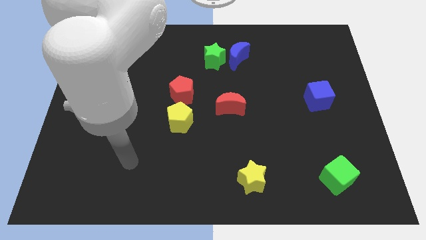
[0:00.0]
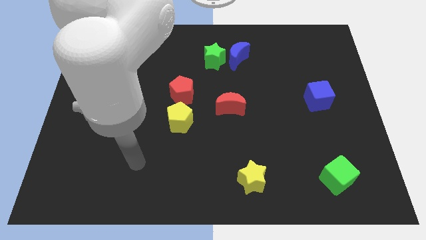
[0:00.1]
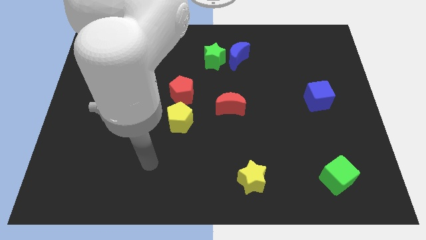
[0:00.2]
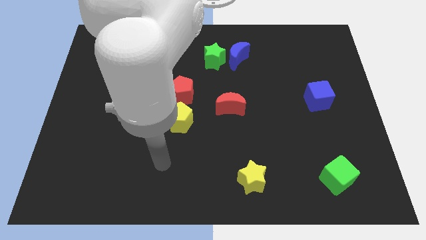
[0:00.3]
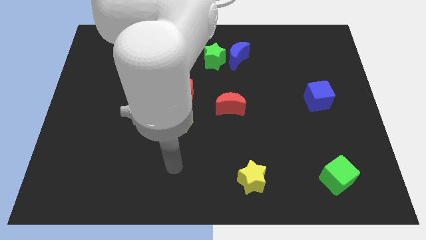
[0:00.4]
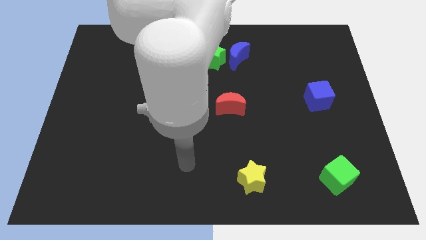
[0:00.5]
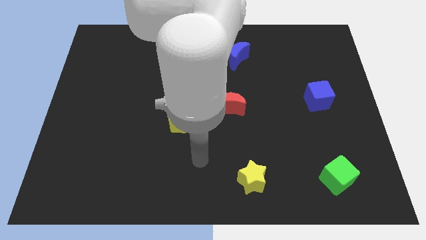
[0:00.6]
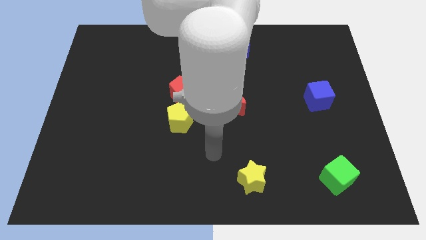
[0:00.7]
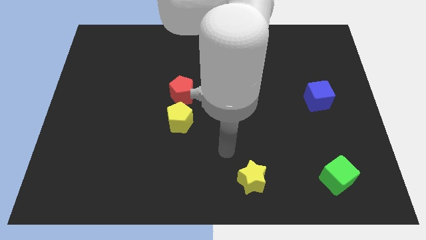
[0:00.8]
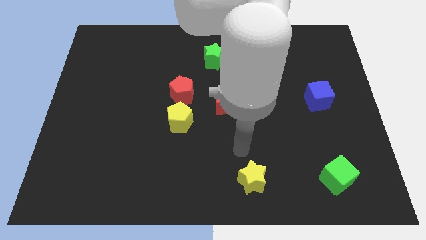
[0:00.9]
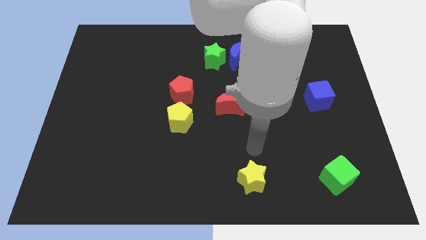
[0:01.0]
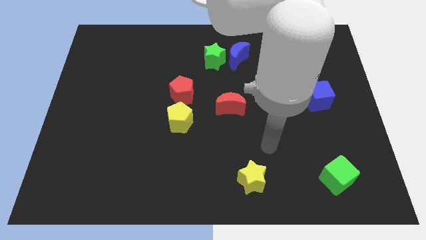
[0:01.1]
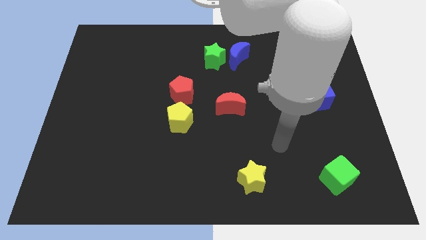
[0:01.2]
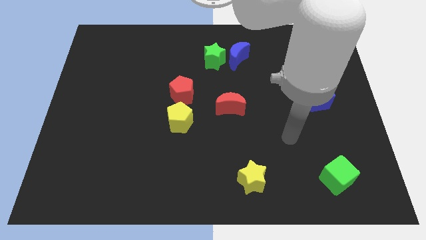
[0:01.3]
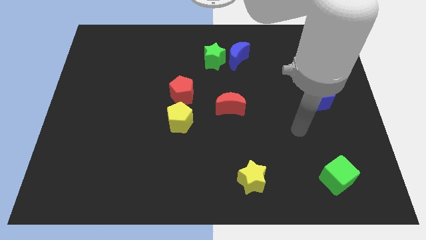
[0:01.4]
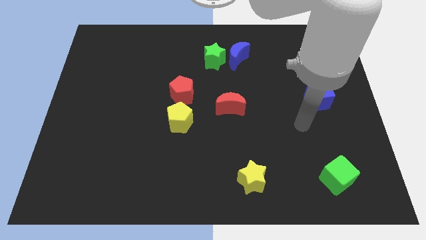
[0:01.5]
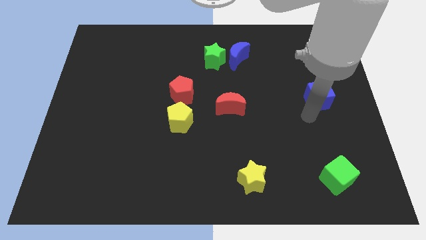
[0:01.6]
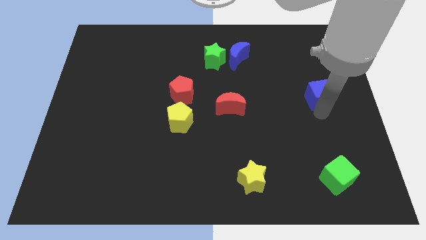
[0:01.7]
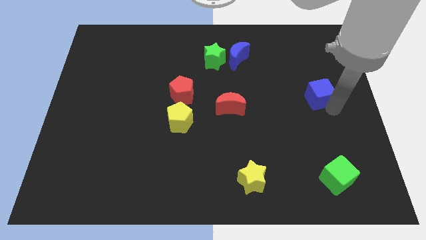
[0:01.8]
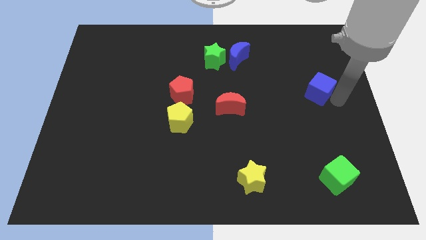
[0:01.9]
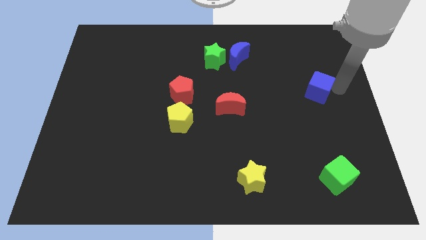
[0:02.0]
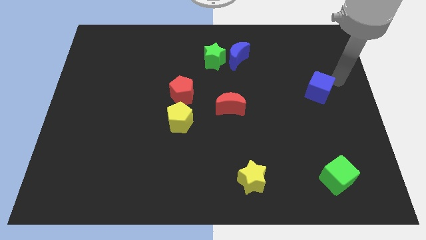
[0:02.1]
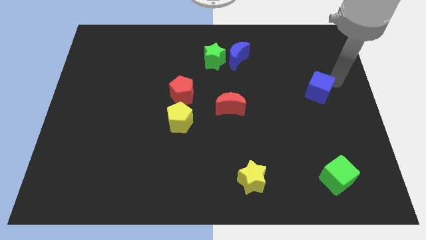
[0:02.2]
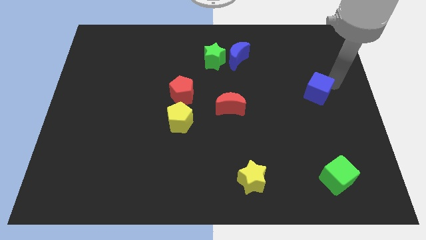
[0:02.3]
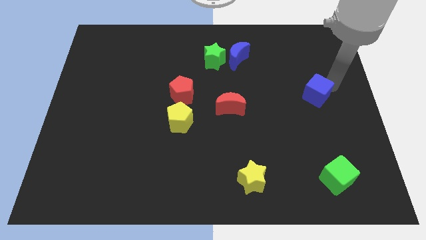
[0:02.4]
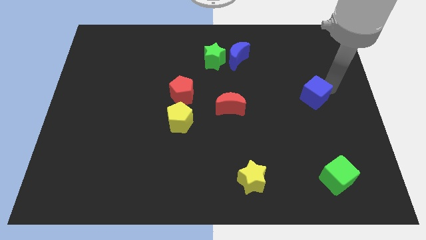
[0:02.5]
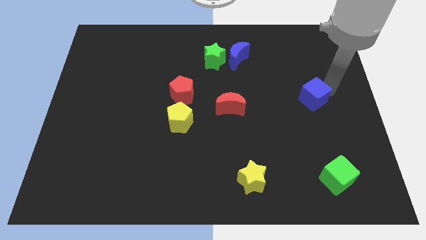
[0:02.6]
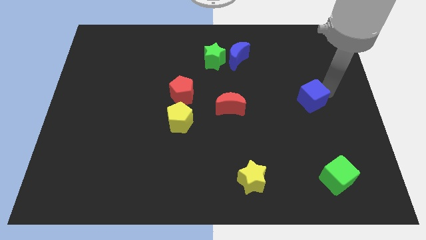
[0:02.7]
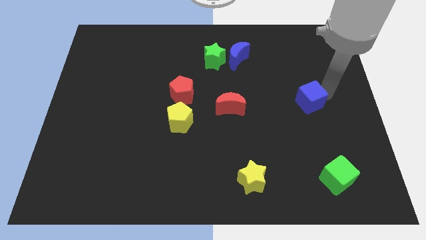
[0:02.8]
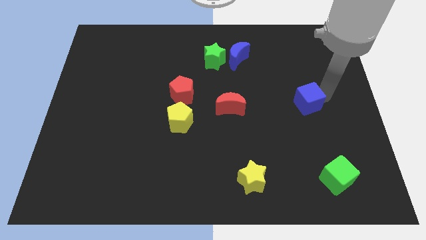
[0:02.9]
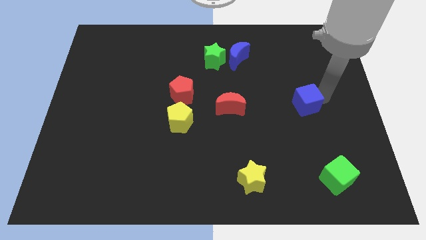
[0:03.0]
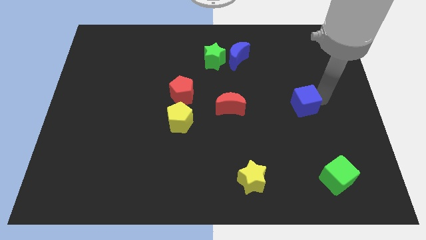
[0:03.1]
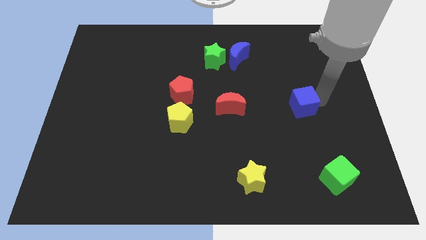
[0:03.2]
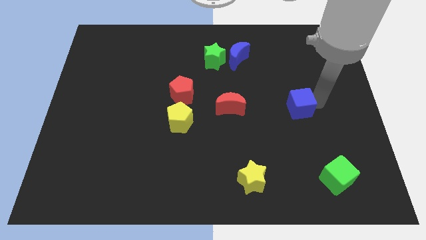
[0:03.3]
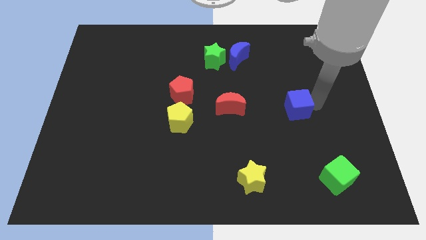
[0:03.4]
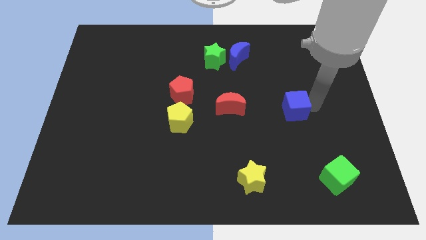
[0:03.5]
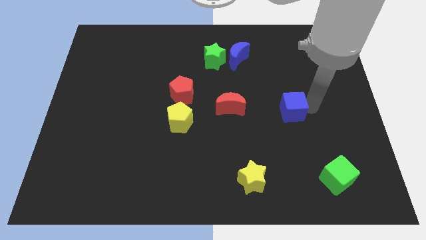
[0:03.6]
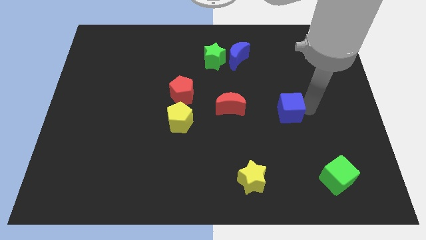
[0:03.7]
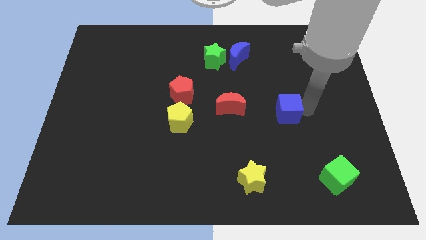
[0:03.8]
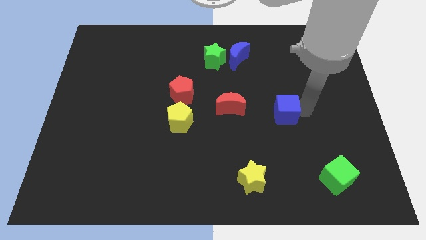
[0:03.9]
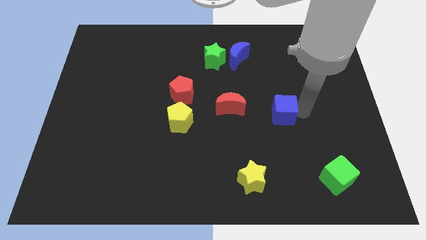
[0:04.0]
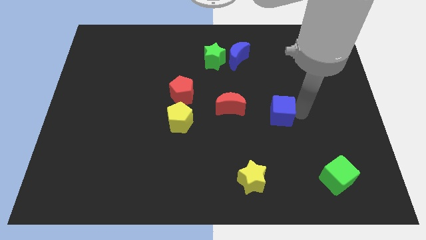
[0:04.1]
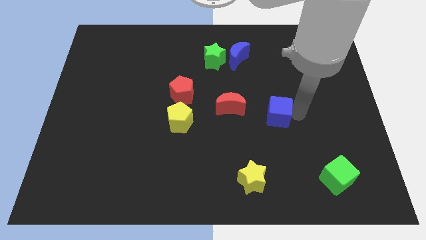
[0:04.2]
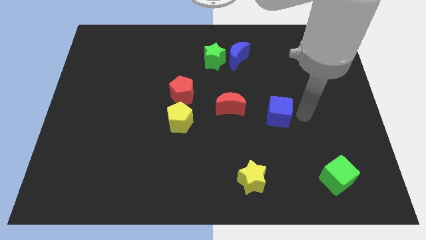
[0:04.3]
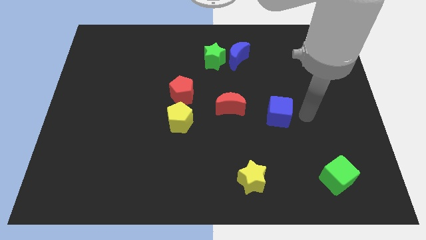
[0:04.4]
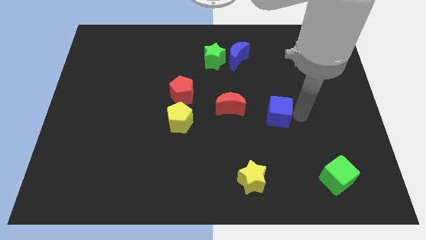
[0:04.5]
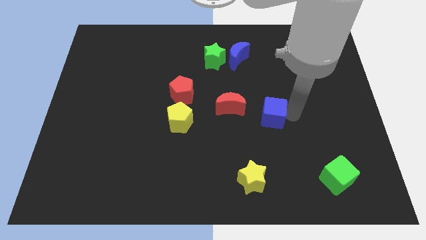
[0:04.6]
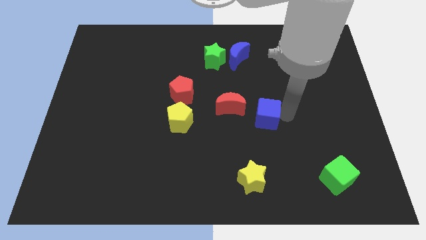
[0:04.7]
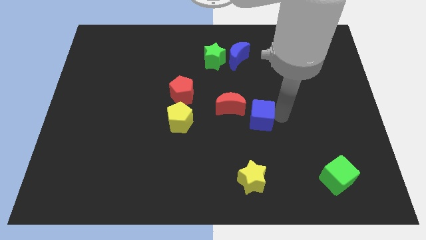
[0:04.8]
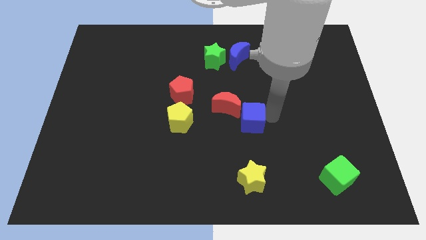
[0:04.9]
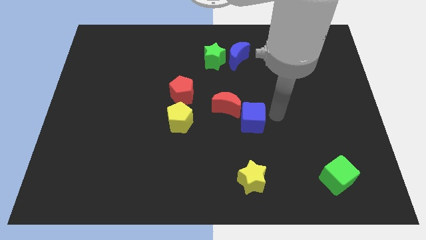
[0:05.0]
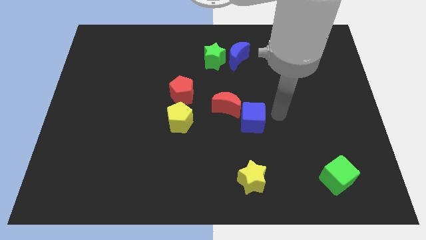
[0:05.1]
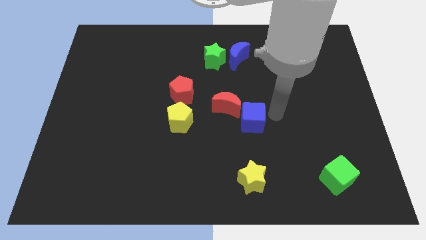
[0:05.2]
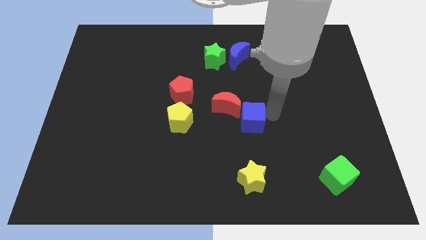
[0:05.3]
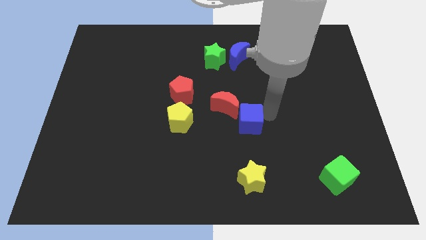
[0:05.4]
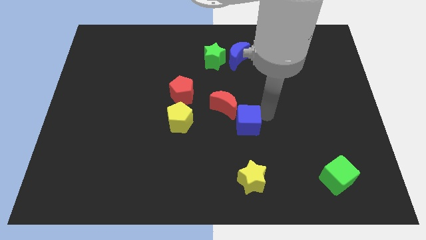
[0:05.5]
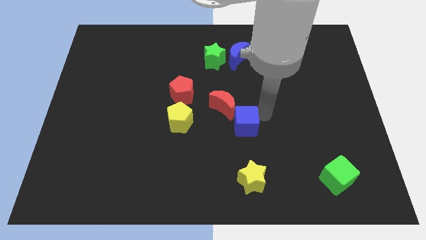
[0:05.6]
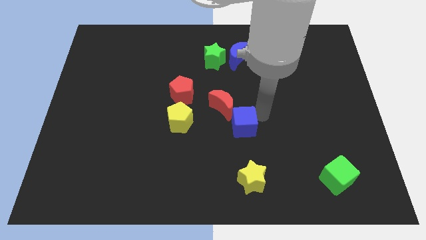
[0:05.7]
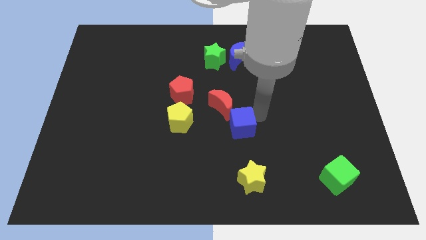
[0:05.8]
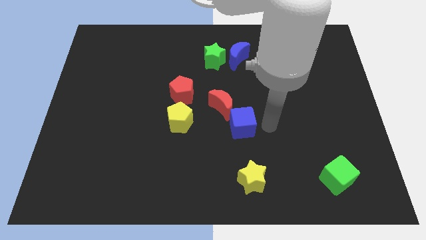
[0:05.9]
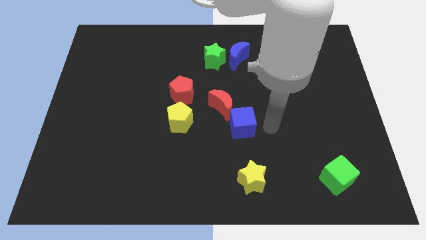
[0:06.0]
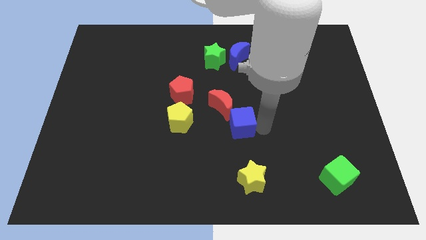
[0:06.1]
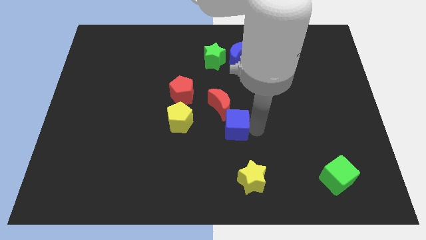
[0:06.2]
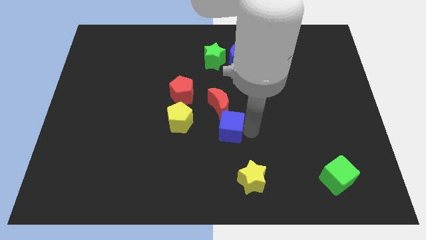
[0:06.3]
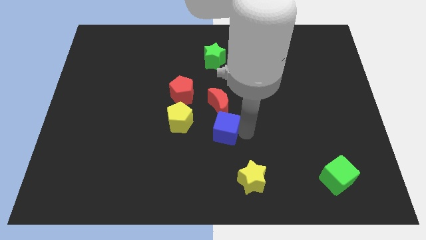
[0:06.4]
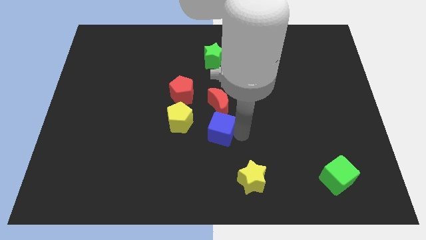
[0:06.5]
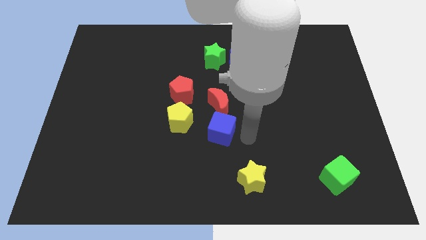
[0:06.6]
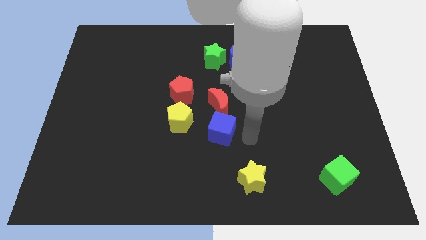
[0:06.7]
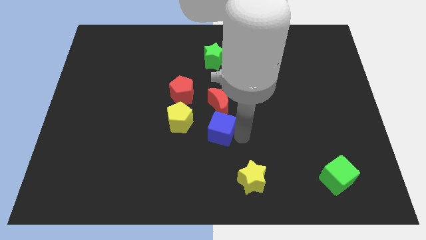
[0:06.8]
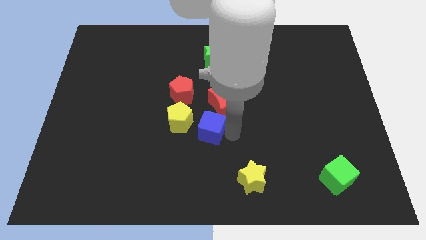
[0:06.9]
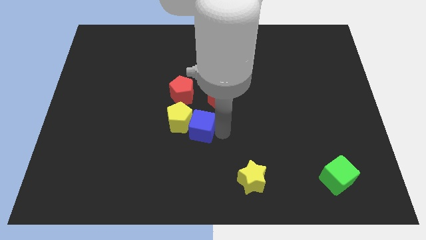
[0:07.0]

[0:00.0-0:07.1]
put the blue cube towards the yellow pentagon
